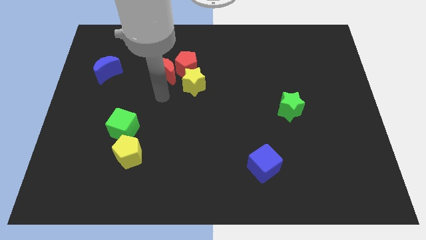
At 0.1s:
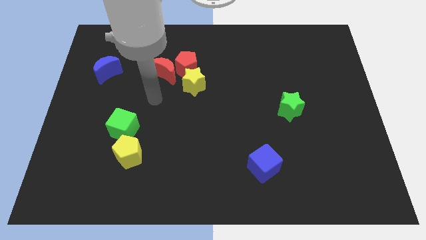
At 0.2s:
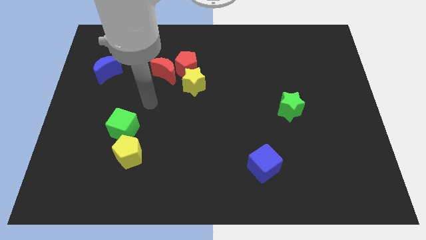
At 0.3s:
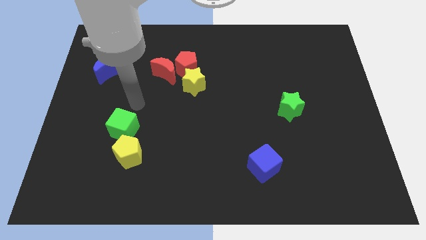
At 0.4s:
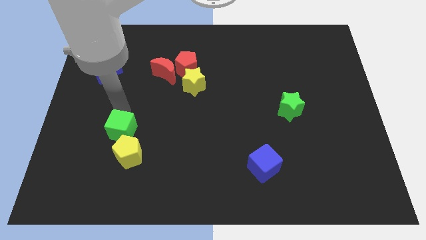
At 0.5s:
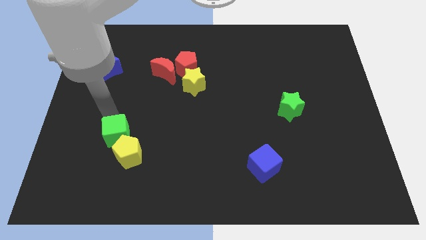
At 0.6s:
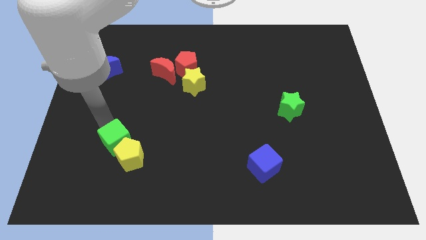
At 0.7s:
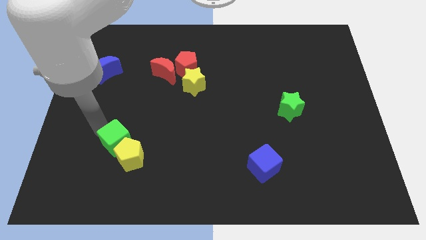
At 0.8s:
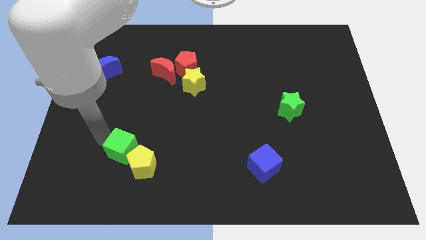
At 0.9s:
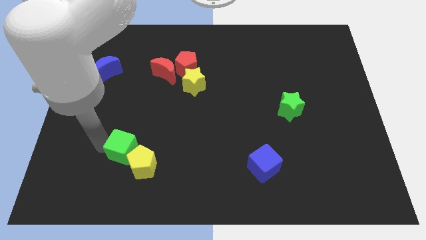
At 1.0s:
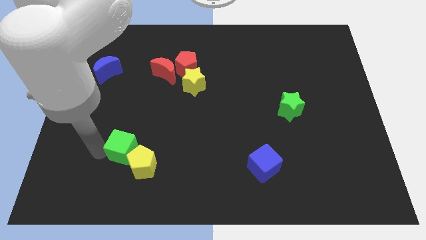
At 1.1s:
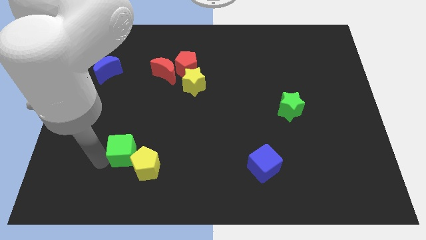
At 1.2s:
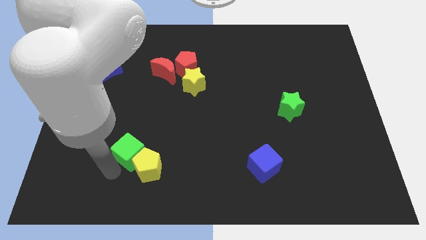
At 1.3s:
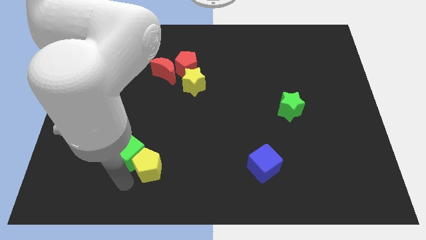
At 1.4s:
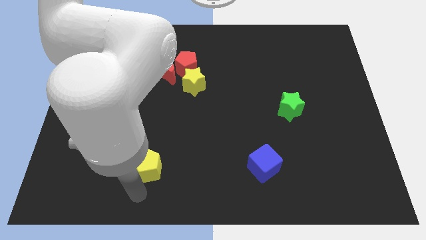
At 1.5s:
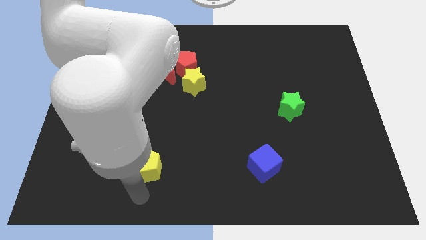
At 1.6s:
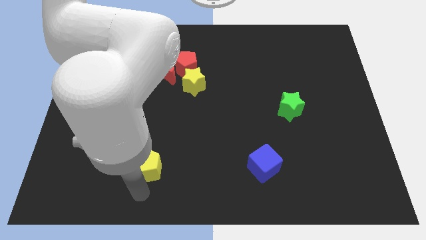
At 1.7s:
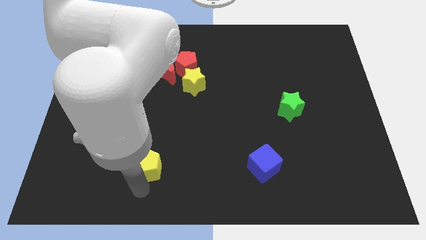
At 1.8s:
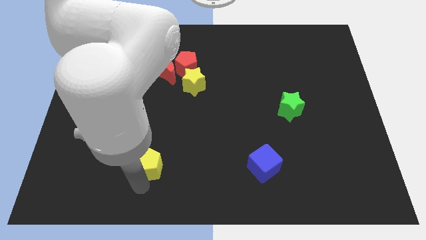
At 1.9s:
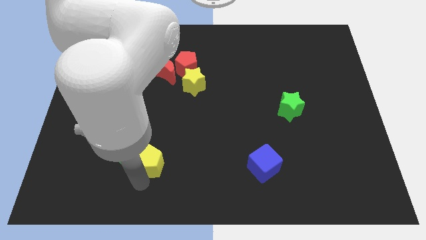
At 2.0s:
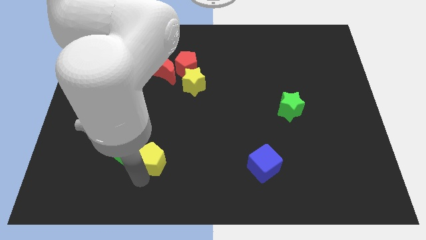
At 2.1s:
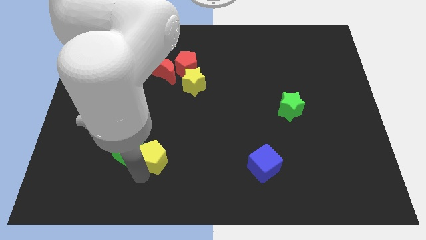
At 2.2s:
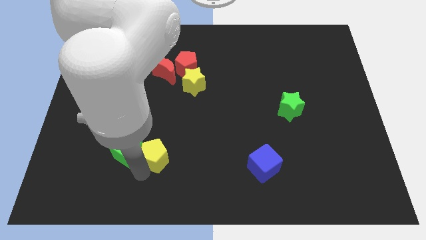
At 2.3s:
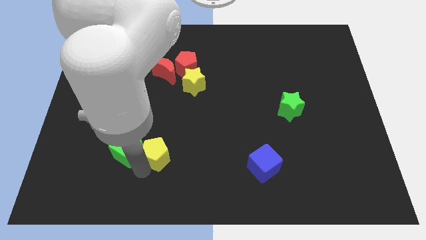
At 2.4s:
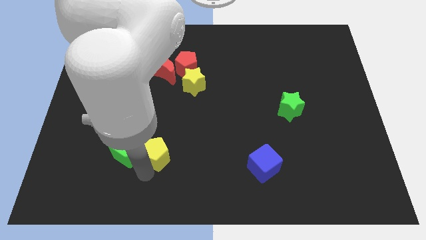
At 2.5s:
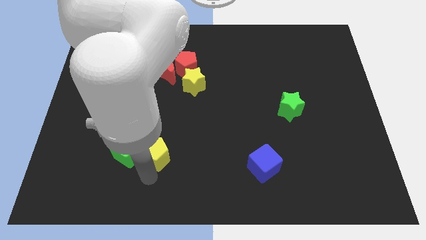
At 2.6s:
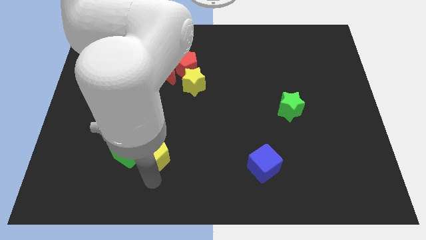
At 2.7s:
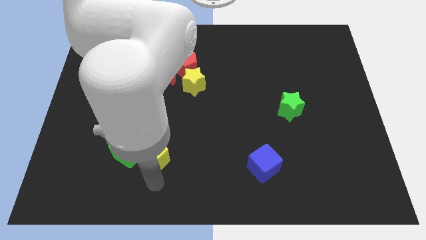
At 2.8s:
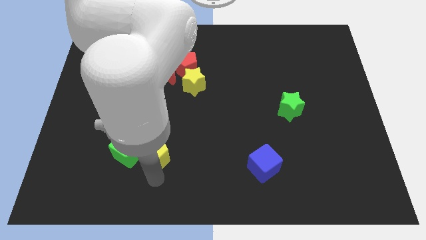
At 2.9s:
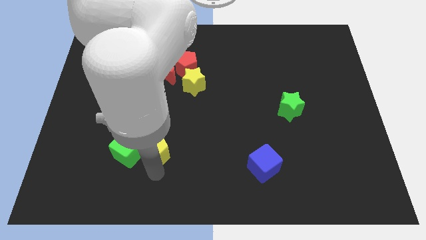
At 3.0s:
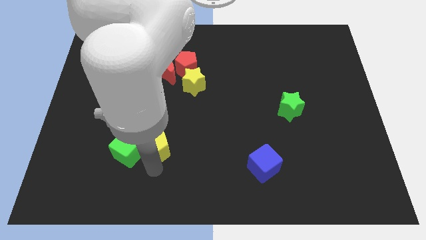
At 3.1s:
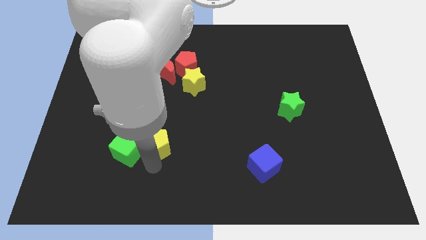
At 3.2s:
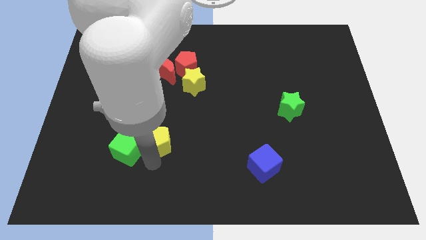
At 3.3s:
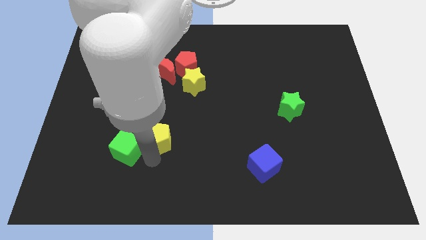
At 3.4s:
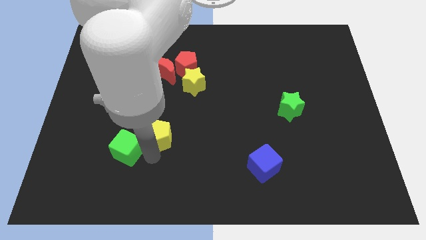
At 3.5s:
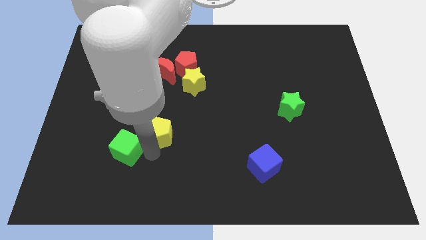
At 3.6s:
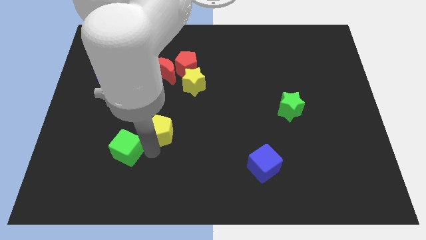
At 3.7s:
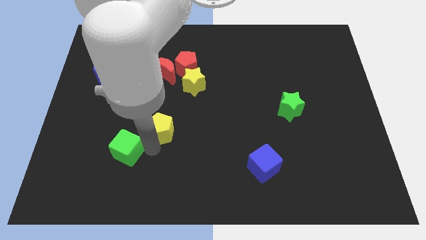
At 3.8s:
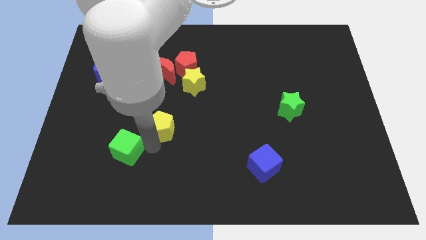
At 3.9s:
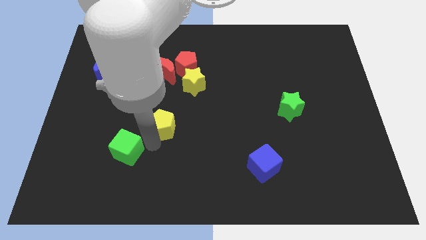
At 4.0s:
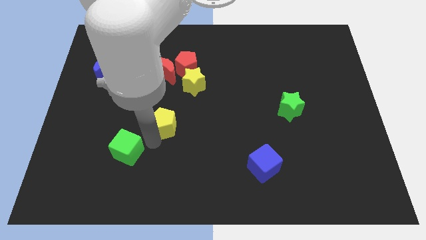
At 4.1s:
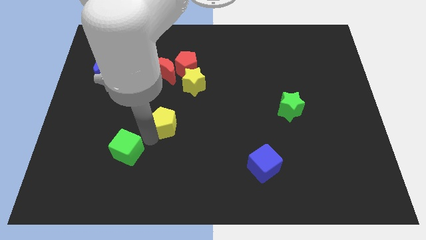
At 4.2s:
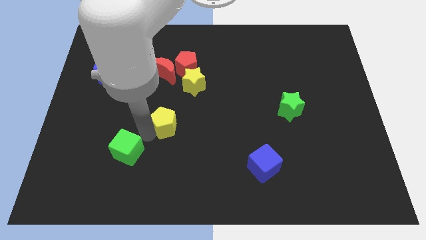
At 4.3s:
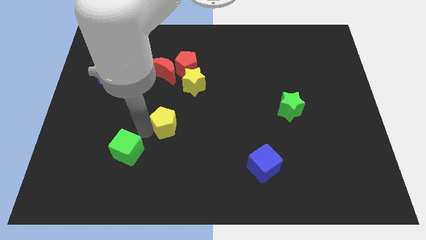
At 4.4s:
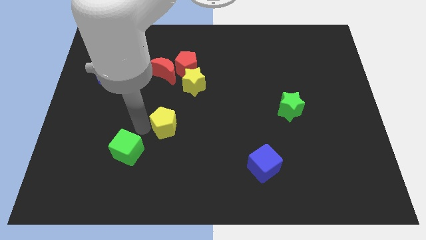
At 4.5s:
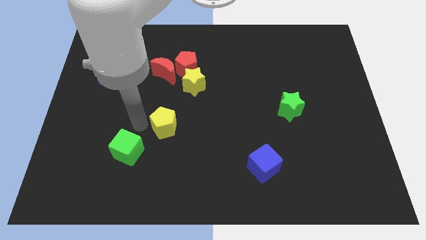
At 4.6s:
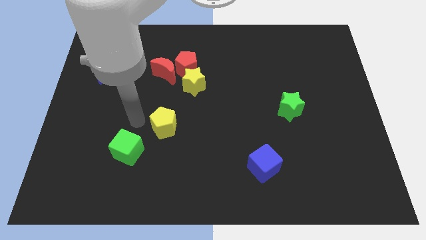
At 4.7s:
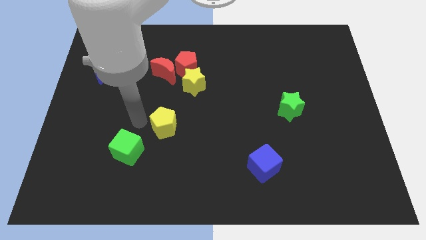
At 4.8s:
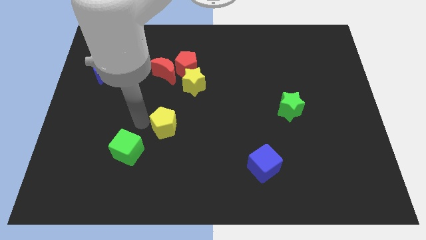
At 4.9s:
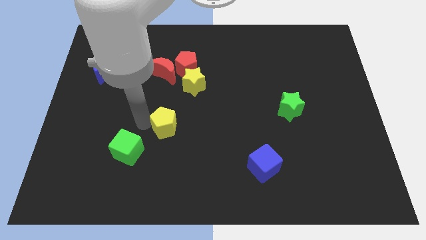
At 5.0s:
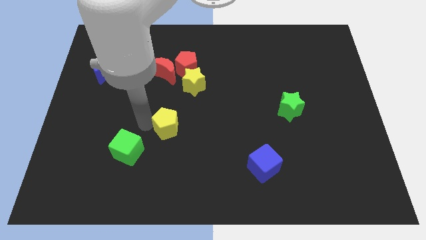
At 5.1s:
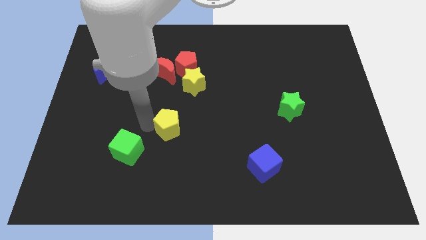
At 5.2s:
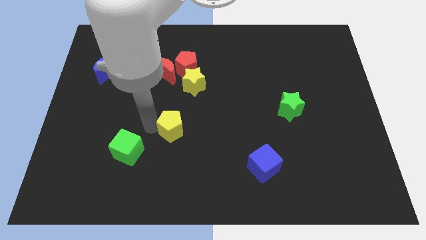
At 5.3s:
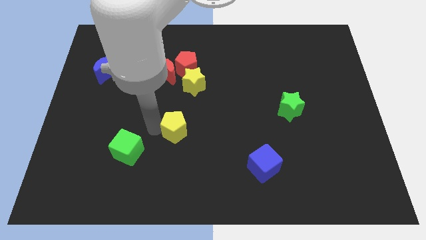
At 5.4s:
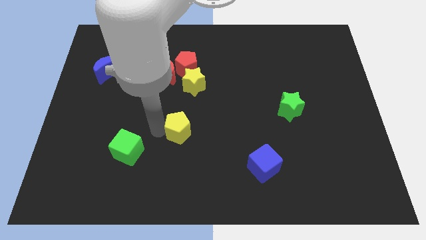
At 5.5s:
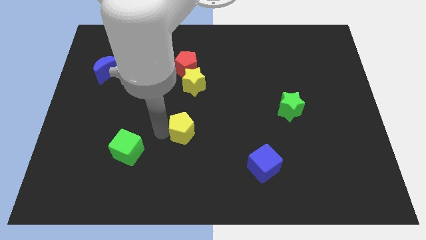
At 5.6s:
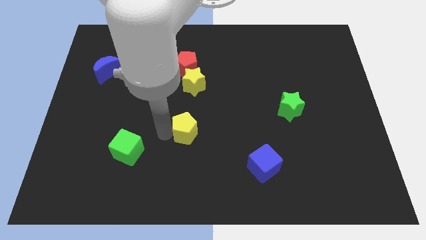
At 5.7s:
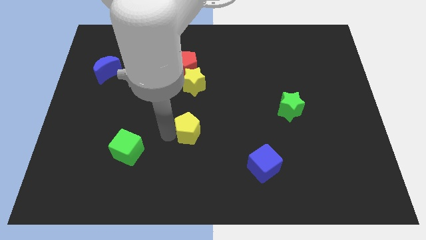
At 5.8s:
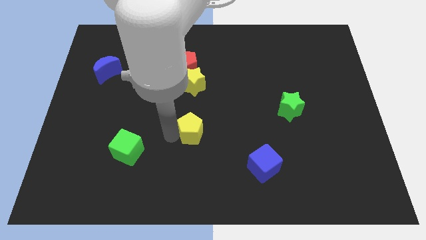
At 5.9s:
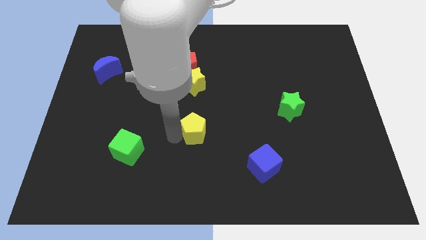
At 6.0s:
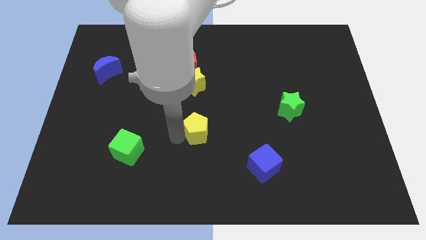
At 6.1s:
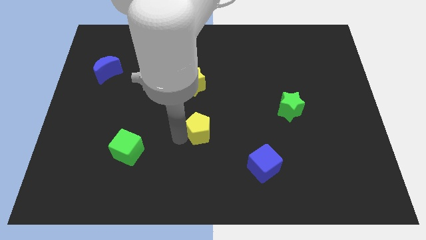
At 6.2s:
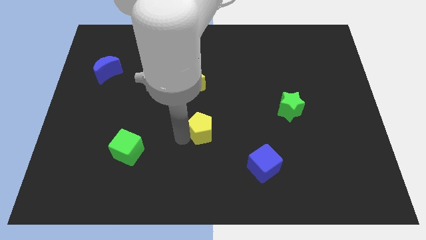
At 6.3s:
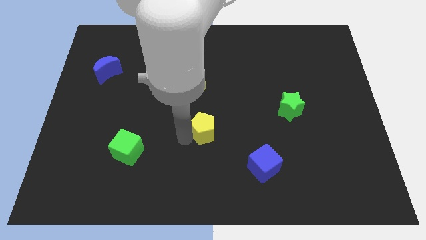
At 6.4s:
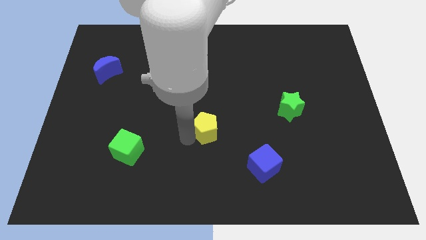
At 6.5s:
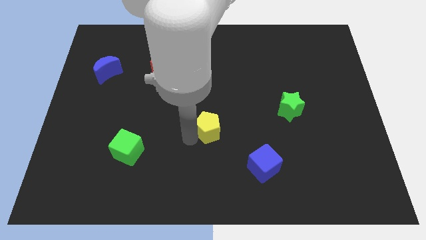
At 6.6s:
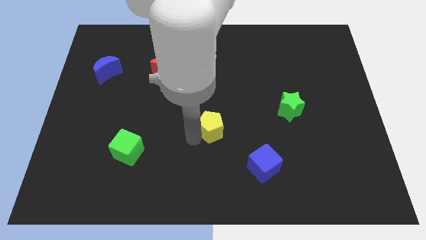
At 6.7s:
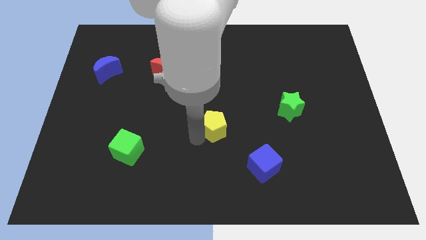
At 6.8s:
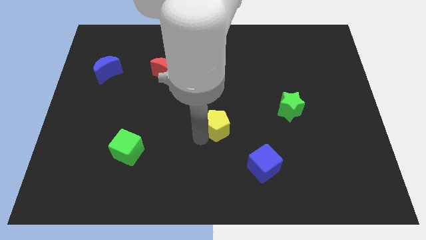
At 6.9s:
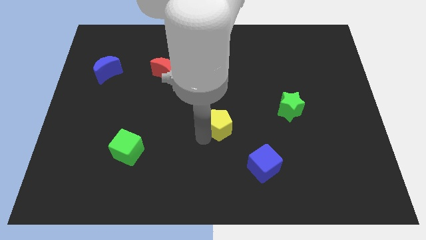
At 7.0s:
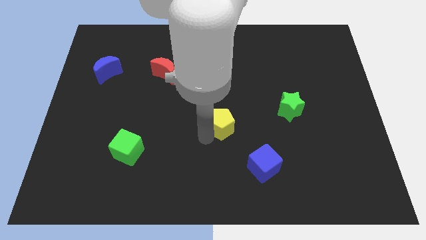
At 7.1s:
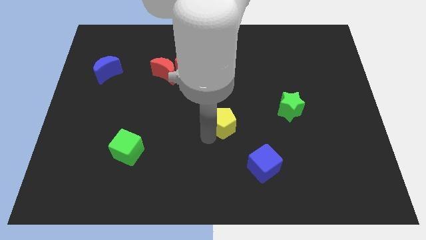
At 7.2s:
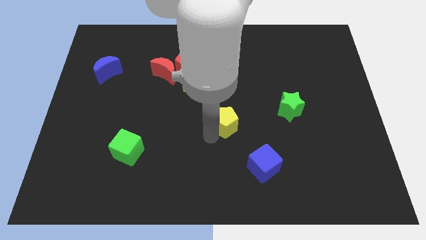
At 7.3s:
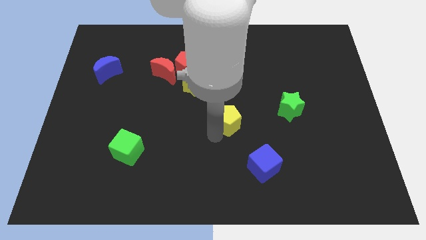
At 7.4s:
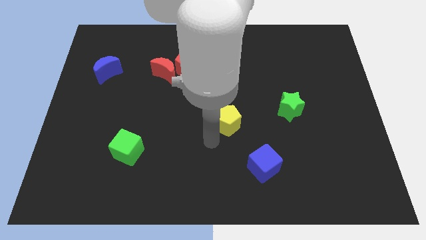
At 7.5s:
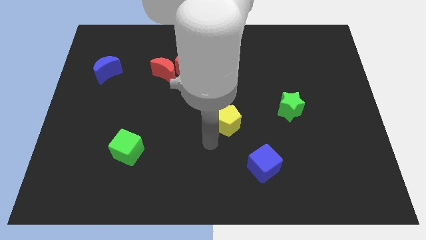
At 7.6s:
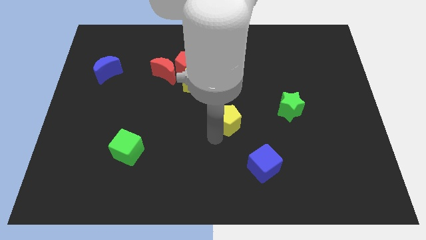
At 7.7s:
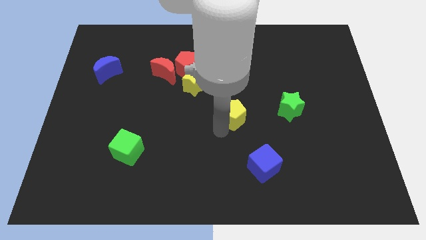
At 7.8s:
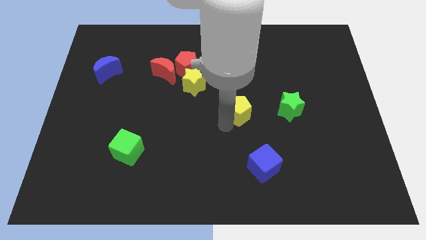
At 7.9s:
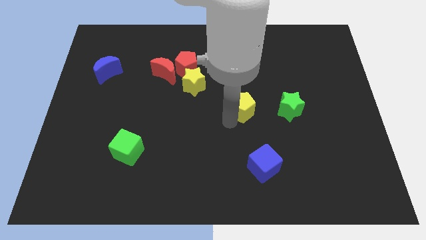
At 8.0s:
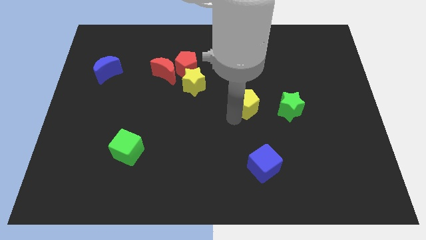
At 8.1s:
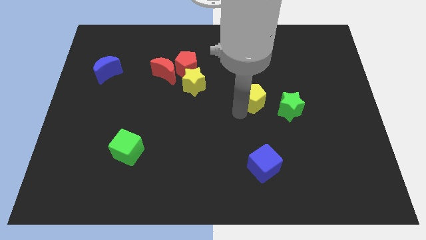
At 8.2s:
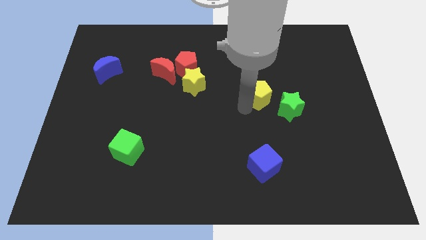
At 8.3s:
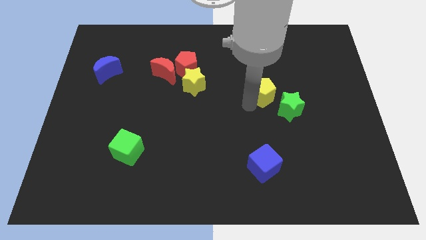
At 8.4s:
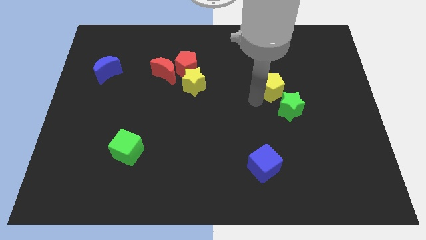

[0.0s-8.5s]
slide the yellow pentagon above the green star
